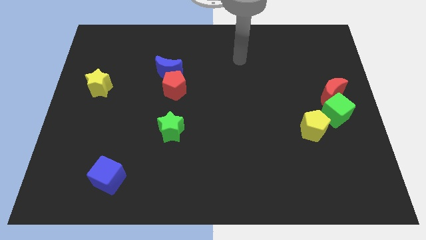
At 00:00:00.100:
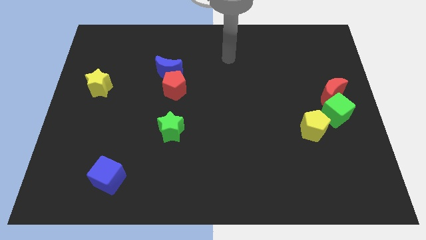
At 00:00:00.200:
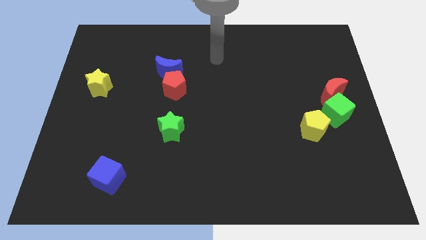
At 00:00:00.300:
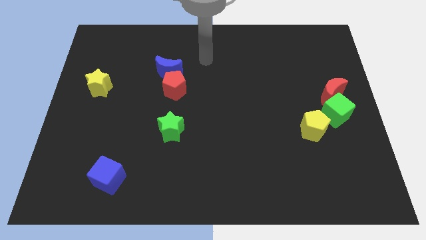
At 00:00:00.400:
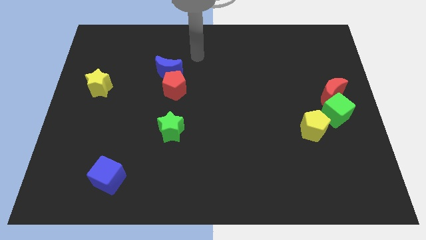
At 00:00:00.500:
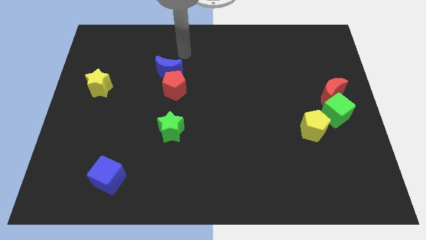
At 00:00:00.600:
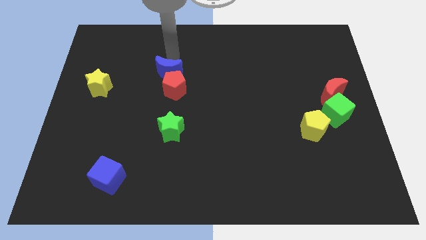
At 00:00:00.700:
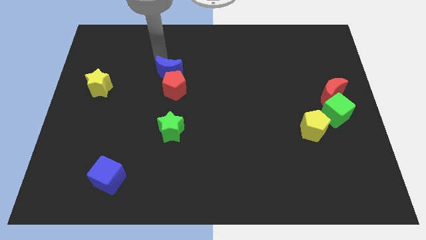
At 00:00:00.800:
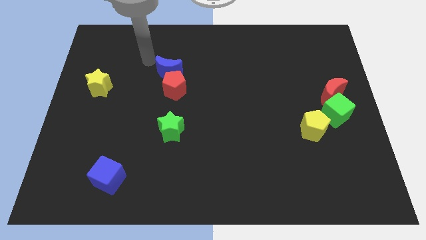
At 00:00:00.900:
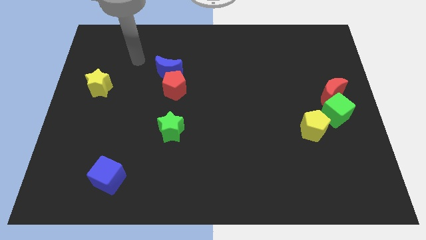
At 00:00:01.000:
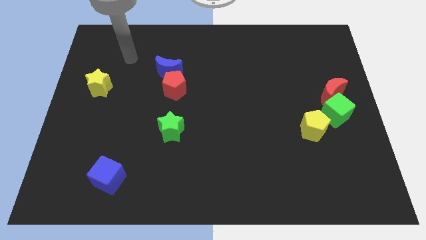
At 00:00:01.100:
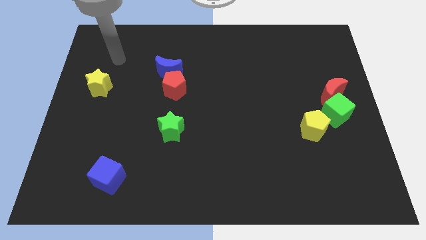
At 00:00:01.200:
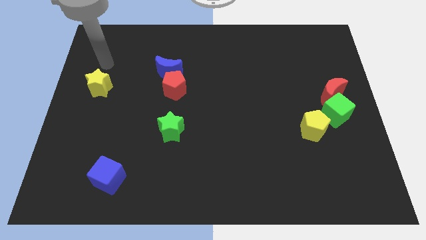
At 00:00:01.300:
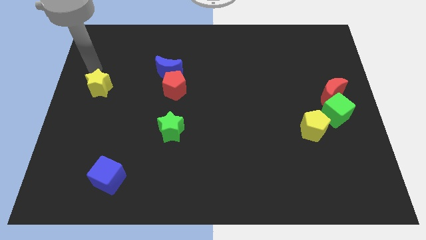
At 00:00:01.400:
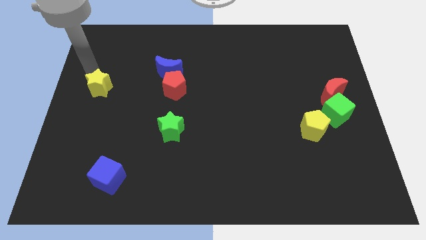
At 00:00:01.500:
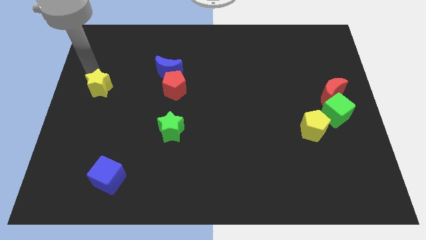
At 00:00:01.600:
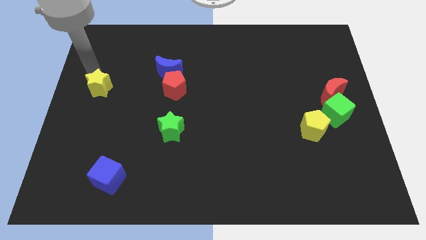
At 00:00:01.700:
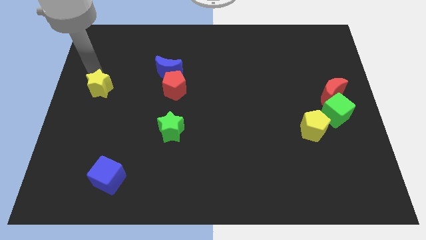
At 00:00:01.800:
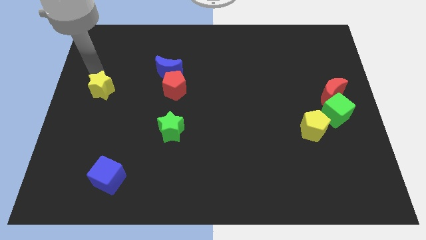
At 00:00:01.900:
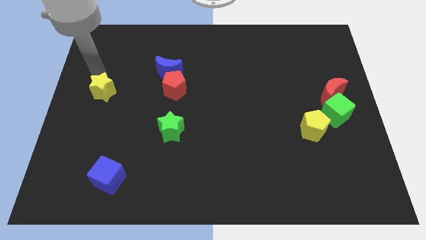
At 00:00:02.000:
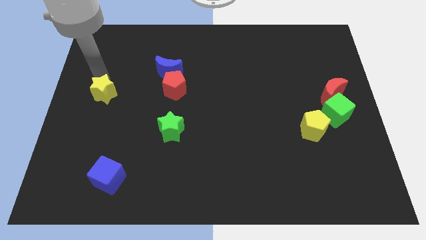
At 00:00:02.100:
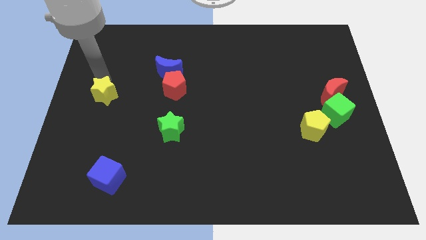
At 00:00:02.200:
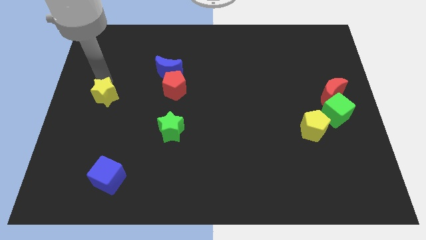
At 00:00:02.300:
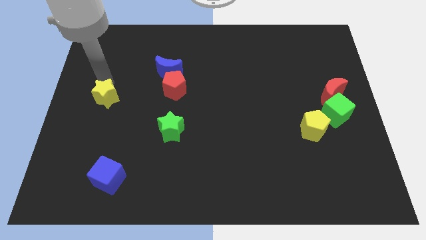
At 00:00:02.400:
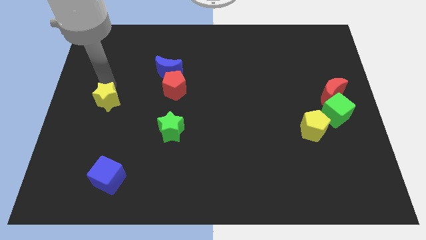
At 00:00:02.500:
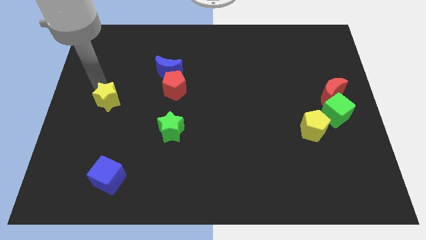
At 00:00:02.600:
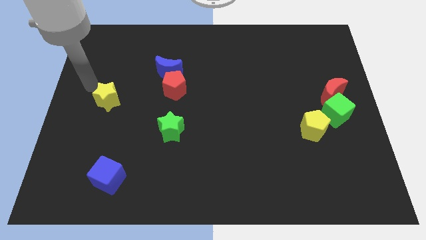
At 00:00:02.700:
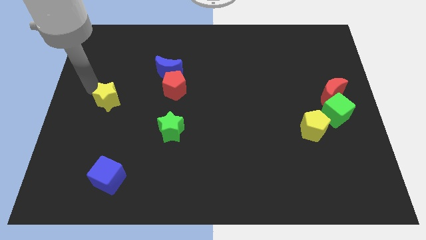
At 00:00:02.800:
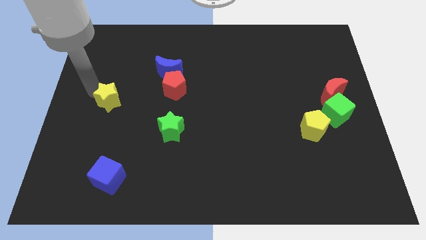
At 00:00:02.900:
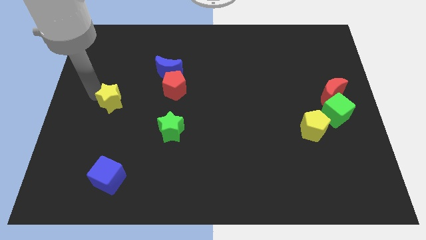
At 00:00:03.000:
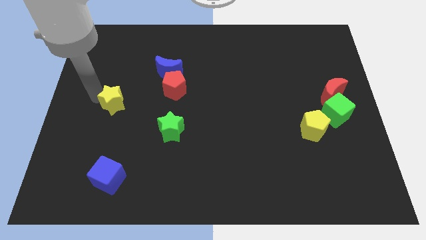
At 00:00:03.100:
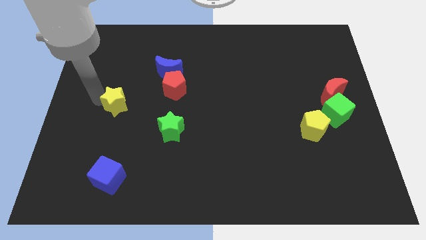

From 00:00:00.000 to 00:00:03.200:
slightly push the yellow star downwards and right diagonally

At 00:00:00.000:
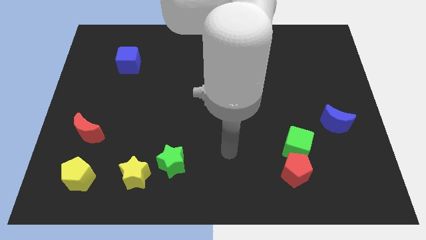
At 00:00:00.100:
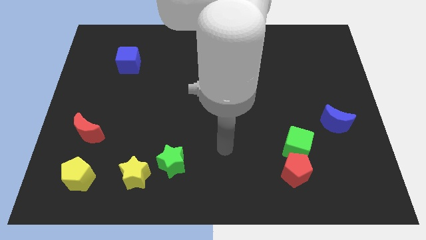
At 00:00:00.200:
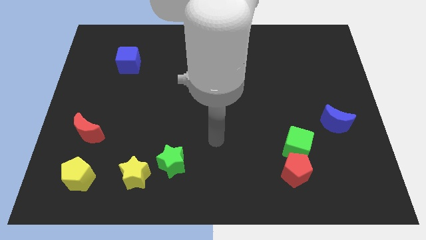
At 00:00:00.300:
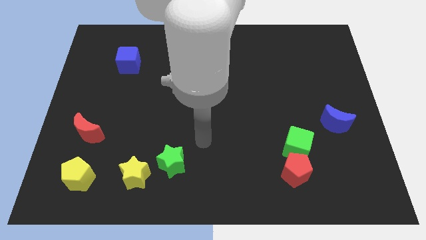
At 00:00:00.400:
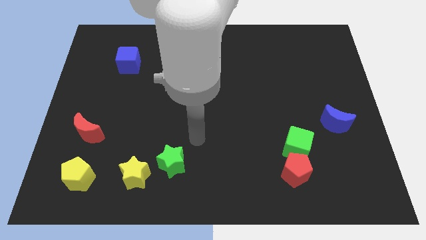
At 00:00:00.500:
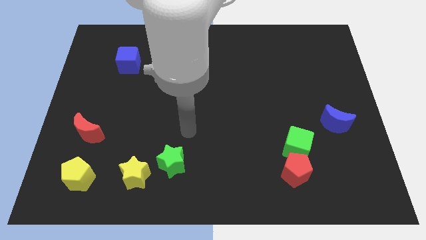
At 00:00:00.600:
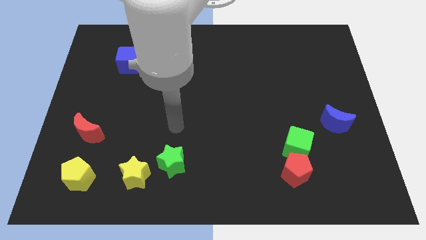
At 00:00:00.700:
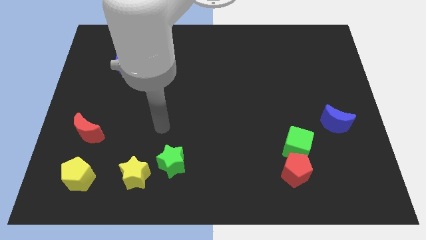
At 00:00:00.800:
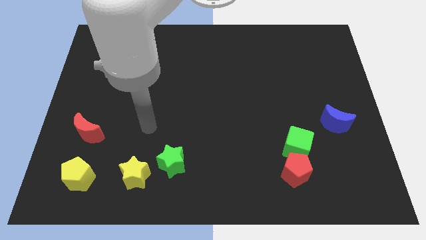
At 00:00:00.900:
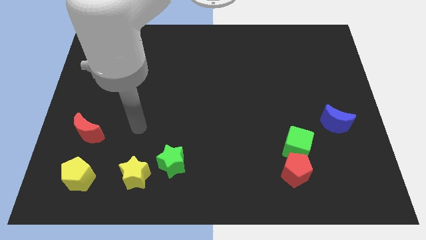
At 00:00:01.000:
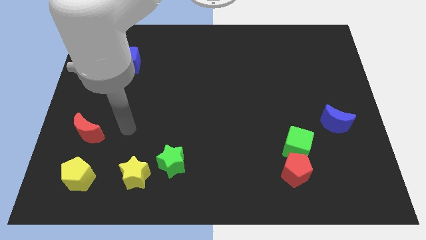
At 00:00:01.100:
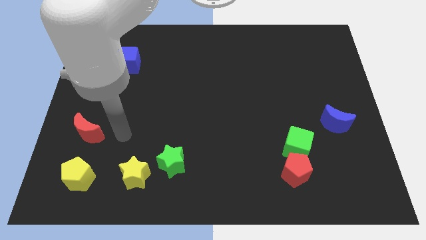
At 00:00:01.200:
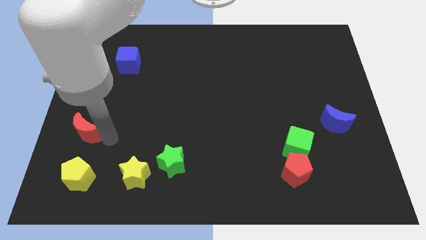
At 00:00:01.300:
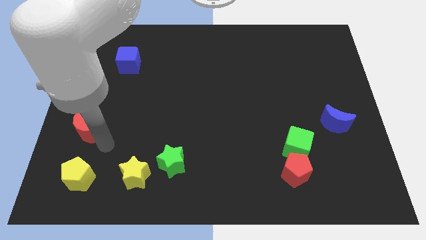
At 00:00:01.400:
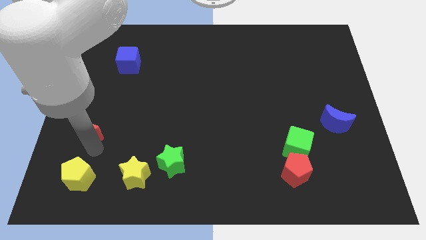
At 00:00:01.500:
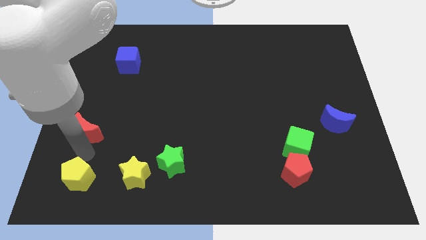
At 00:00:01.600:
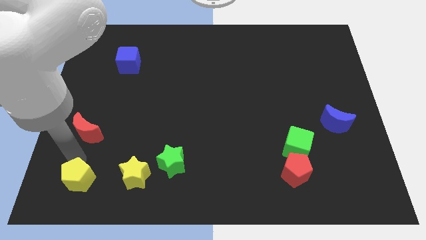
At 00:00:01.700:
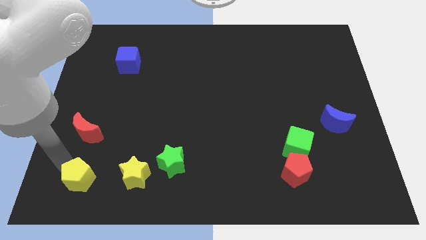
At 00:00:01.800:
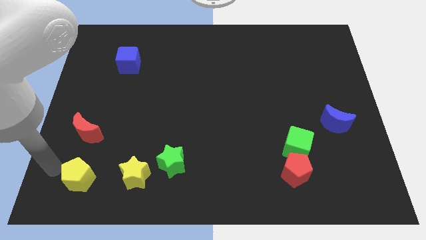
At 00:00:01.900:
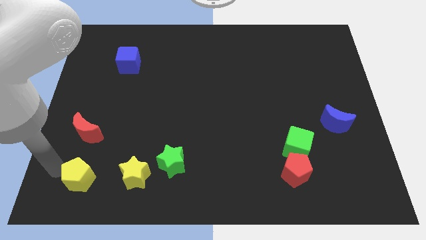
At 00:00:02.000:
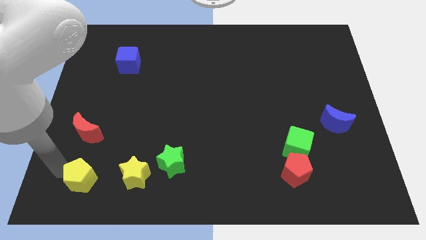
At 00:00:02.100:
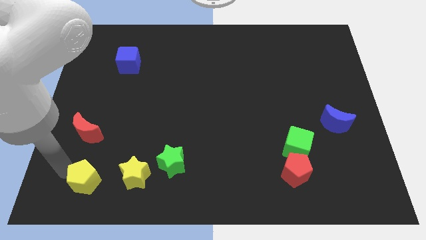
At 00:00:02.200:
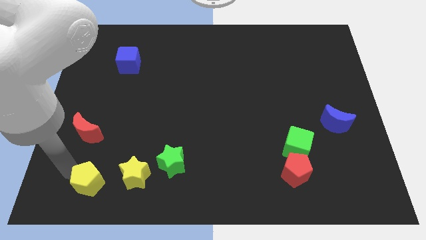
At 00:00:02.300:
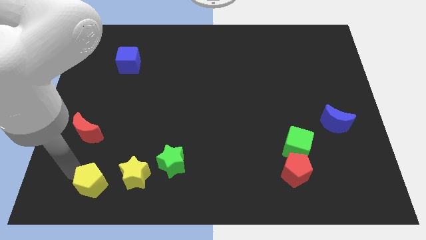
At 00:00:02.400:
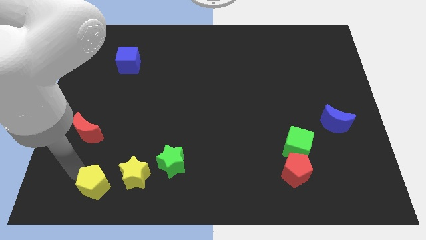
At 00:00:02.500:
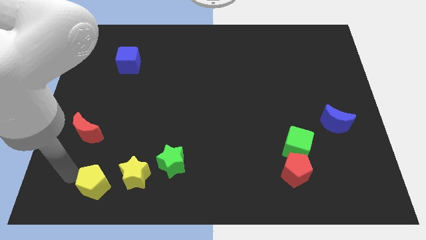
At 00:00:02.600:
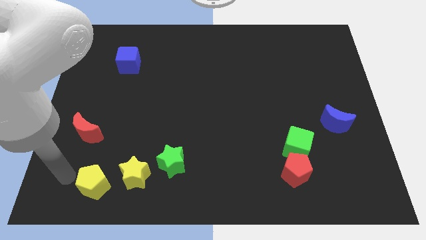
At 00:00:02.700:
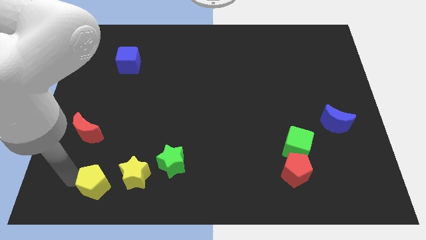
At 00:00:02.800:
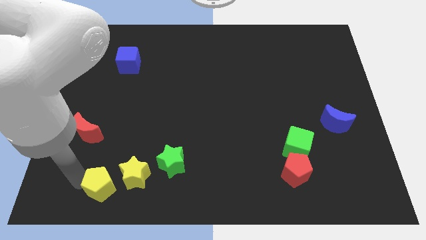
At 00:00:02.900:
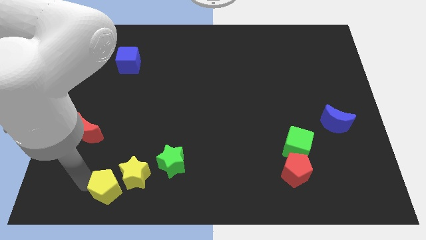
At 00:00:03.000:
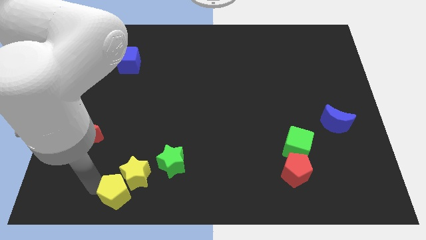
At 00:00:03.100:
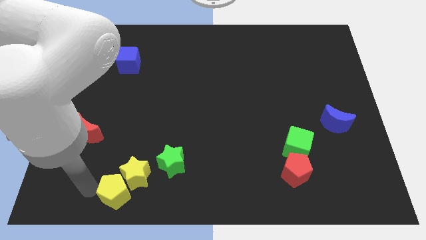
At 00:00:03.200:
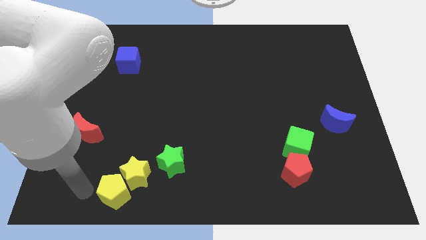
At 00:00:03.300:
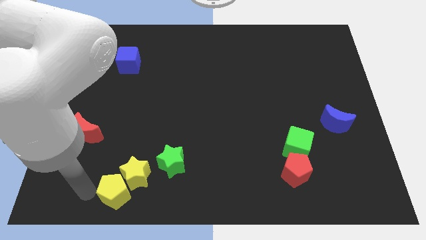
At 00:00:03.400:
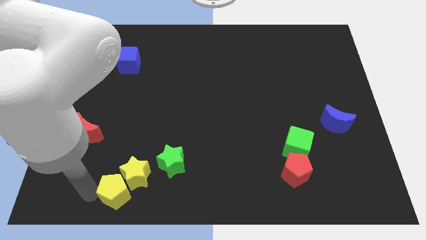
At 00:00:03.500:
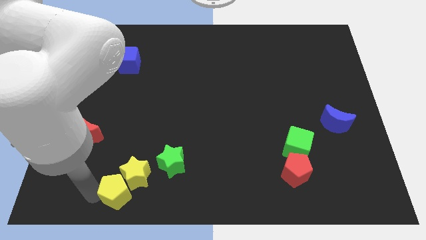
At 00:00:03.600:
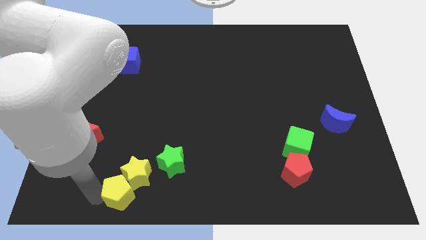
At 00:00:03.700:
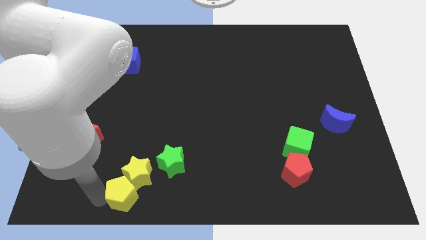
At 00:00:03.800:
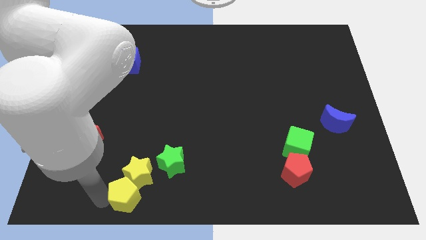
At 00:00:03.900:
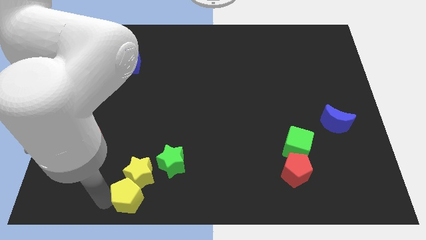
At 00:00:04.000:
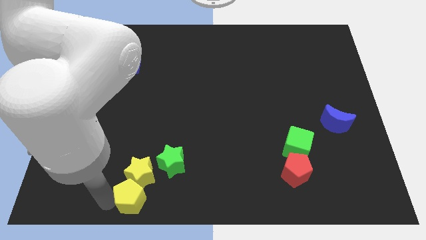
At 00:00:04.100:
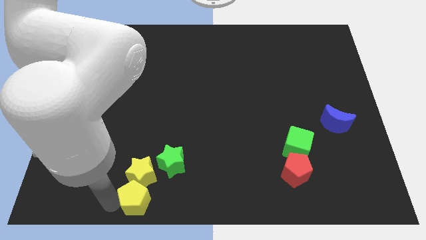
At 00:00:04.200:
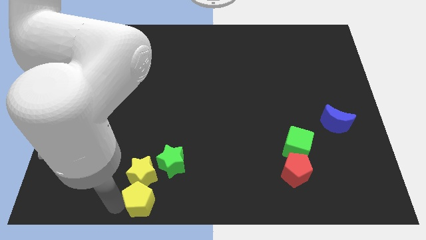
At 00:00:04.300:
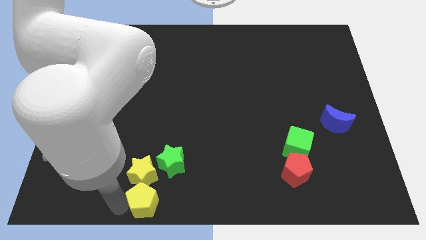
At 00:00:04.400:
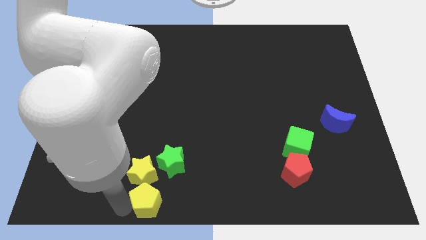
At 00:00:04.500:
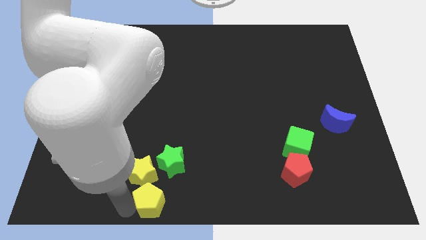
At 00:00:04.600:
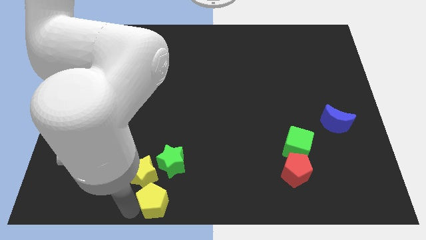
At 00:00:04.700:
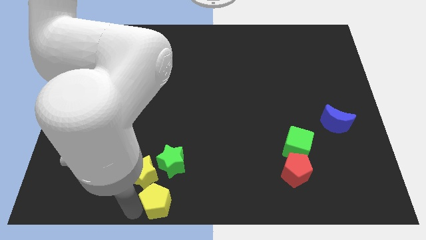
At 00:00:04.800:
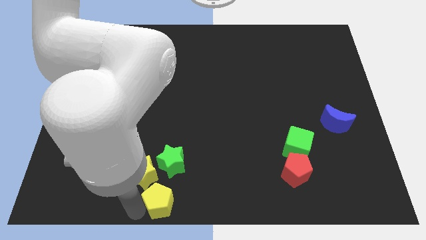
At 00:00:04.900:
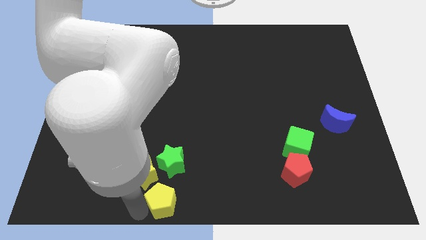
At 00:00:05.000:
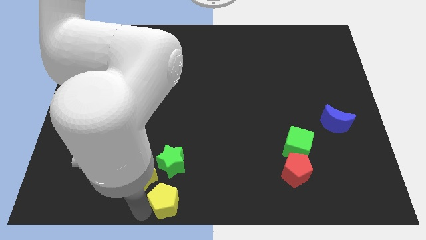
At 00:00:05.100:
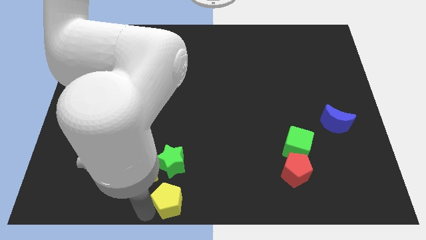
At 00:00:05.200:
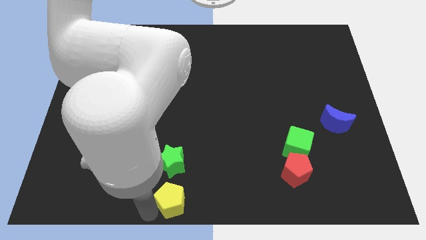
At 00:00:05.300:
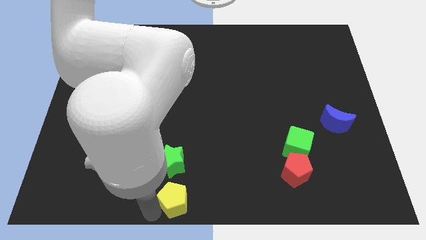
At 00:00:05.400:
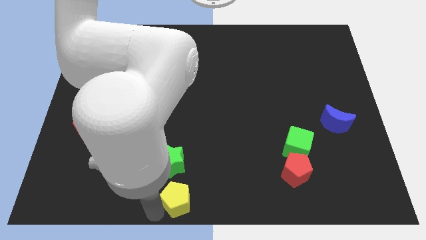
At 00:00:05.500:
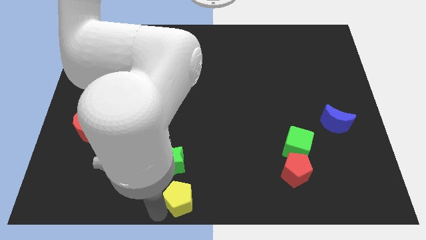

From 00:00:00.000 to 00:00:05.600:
move the yellow pentagon right
